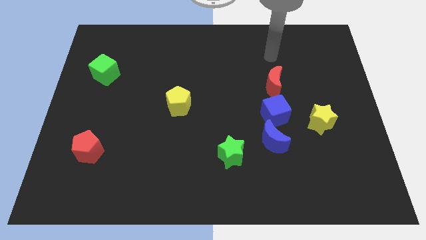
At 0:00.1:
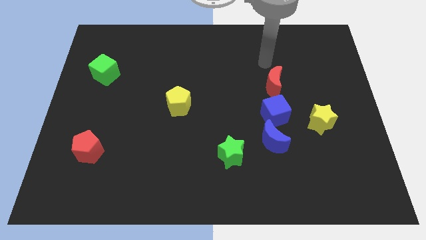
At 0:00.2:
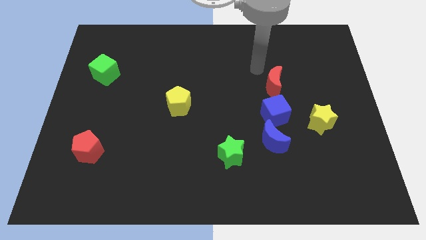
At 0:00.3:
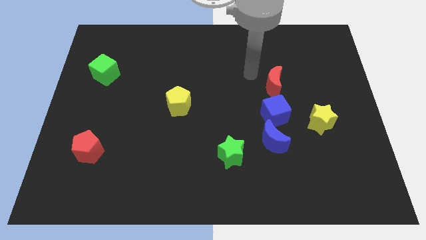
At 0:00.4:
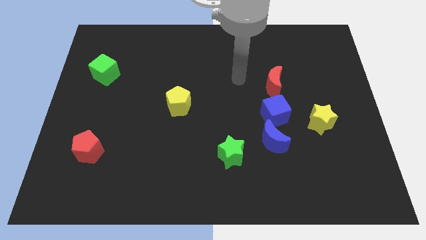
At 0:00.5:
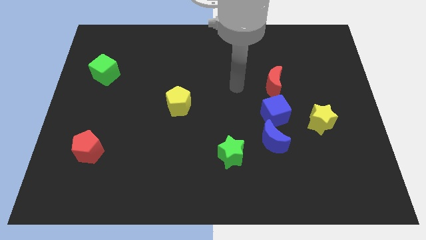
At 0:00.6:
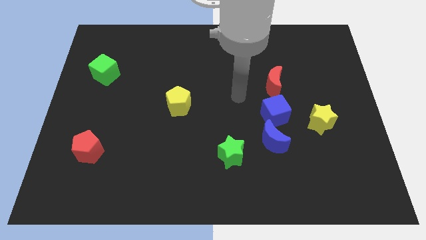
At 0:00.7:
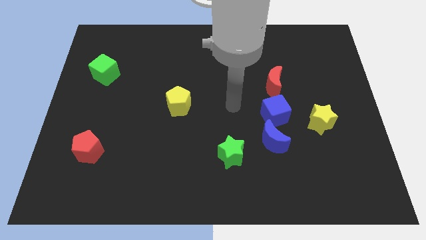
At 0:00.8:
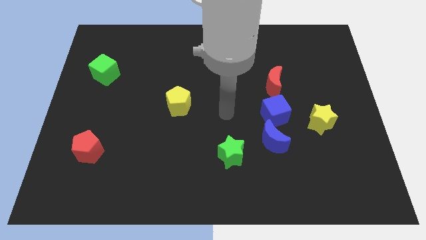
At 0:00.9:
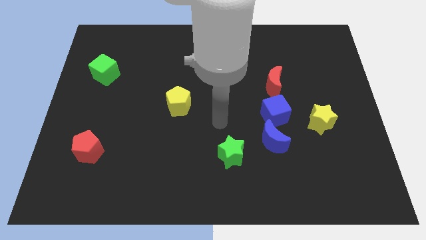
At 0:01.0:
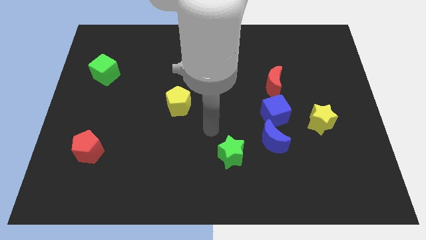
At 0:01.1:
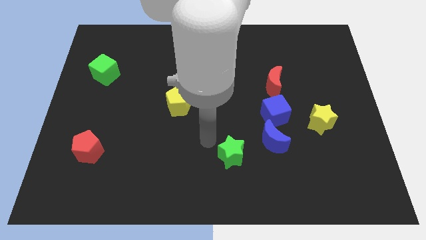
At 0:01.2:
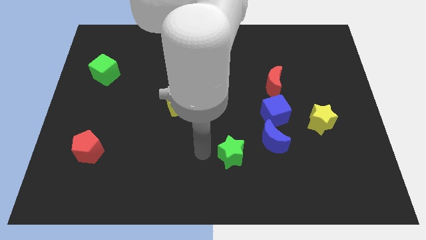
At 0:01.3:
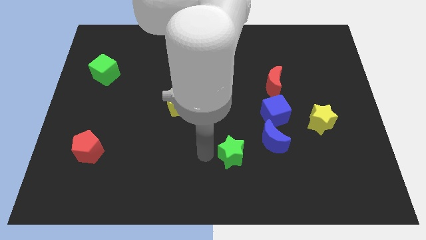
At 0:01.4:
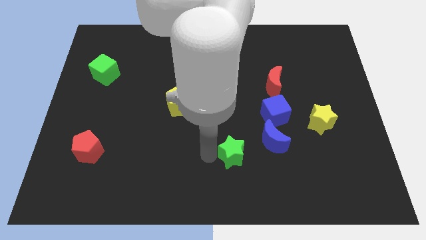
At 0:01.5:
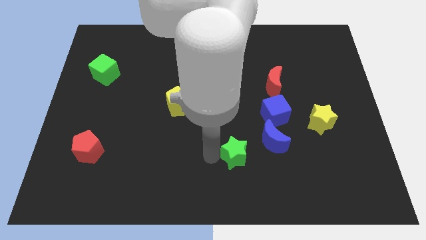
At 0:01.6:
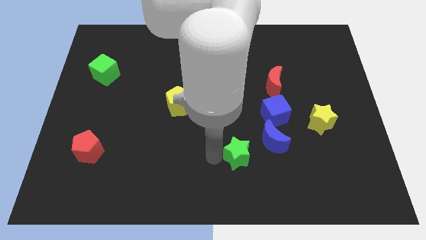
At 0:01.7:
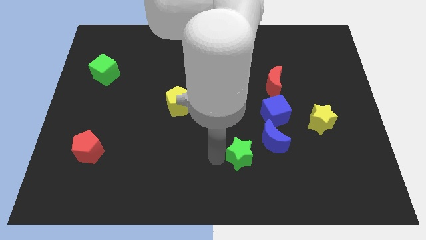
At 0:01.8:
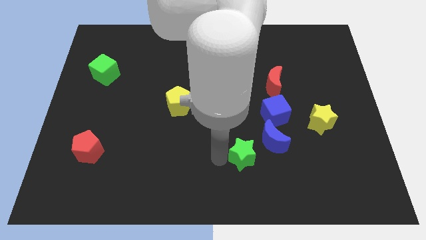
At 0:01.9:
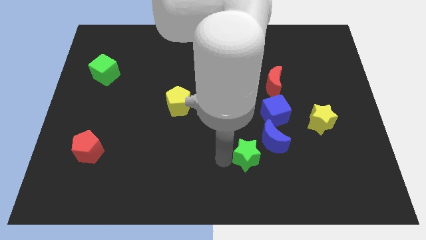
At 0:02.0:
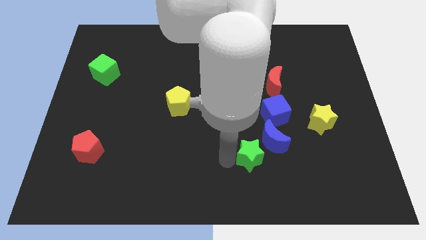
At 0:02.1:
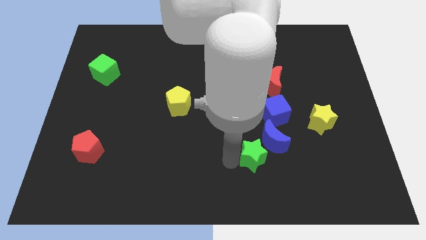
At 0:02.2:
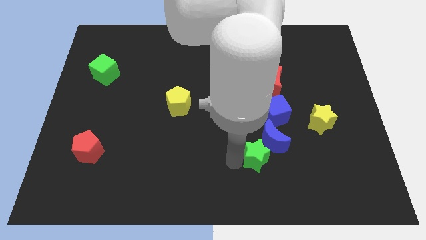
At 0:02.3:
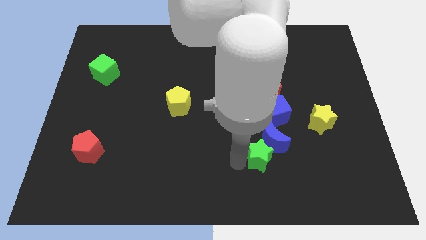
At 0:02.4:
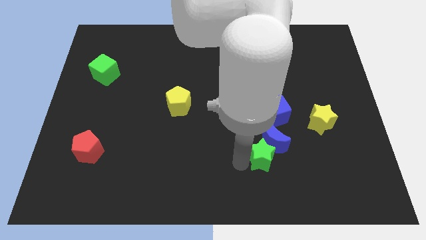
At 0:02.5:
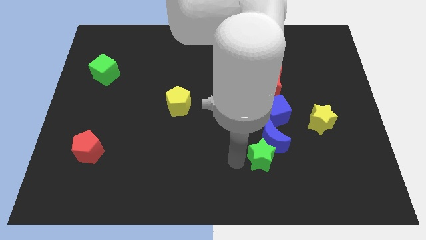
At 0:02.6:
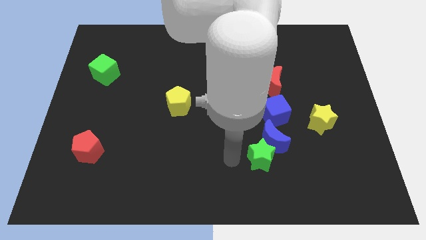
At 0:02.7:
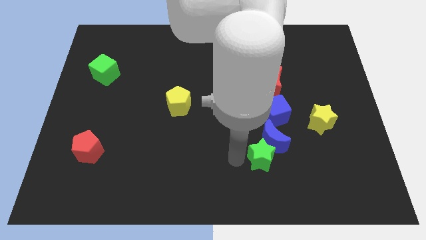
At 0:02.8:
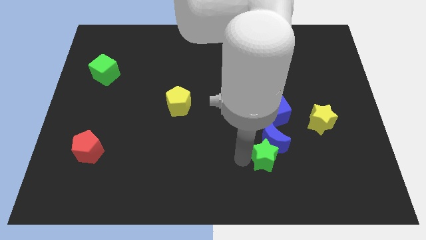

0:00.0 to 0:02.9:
slide the green star a little to the right

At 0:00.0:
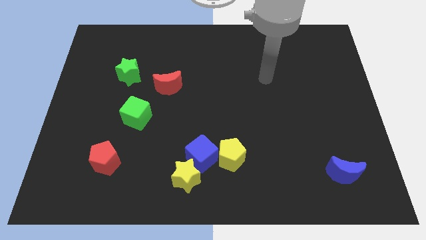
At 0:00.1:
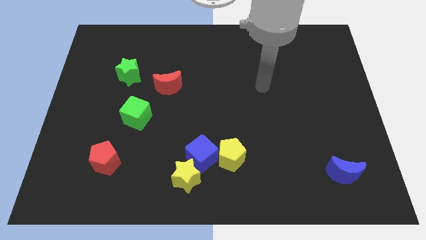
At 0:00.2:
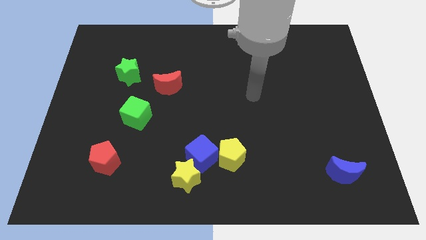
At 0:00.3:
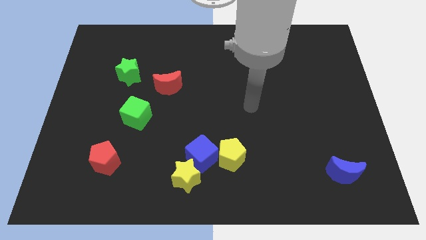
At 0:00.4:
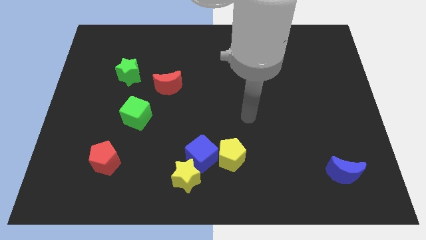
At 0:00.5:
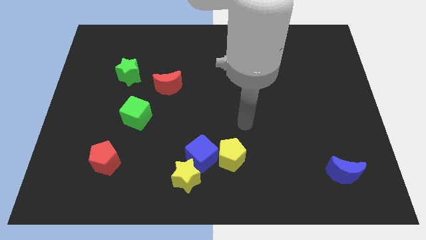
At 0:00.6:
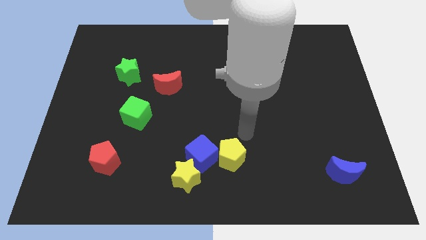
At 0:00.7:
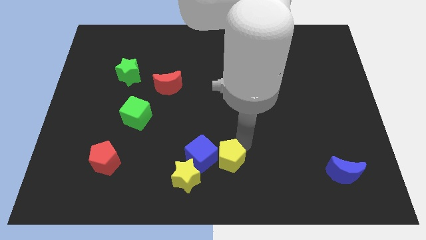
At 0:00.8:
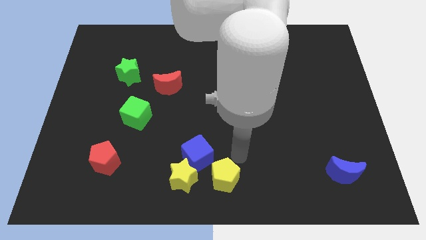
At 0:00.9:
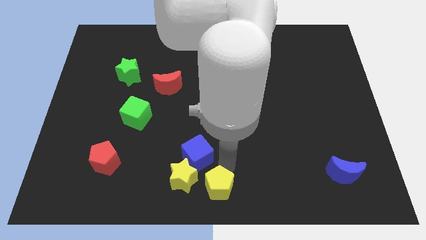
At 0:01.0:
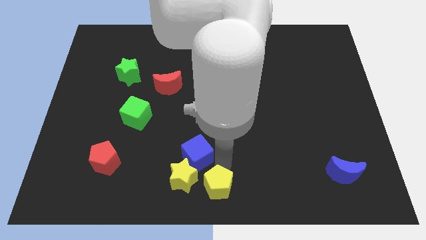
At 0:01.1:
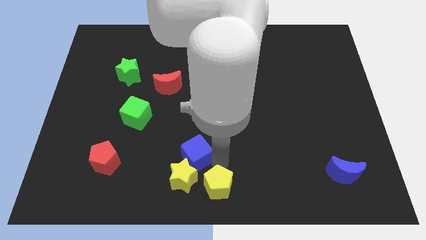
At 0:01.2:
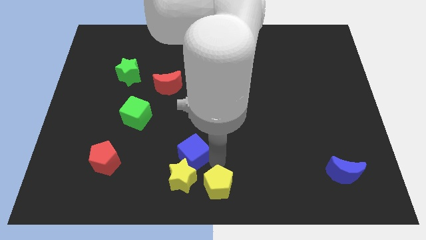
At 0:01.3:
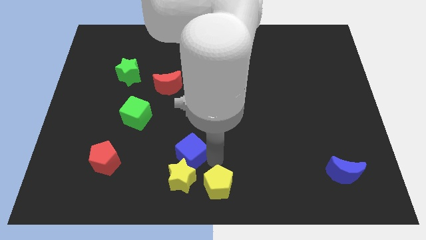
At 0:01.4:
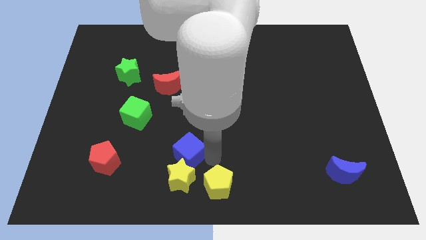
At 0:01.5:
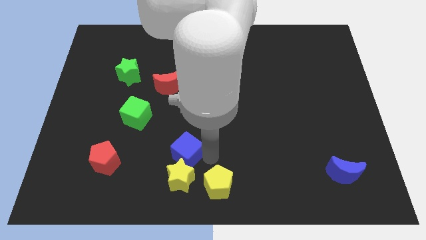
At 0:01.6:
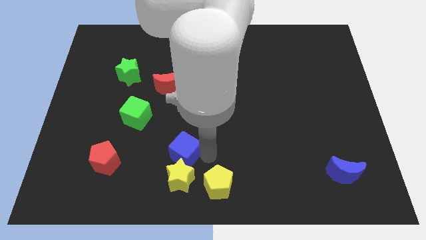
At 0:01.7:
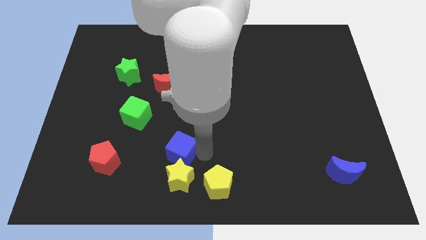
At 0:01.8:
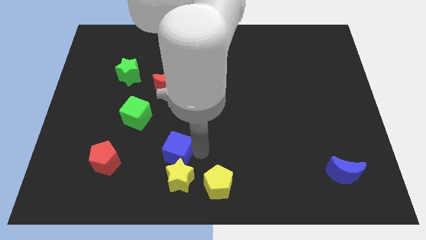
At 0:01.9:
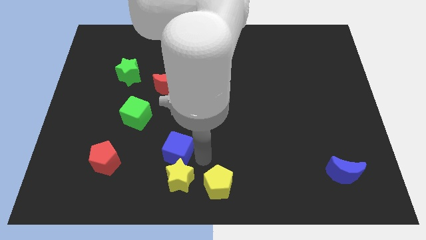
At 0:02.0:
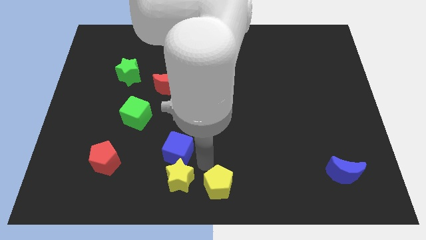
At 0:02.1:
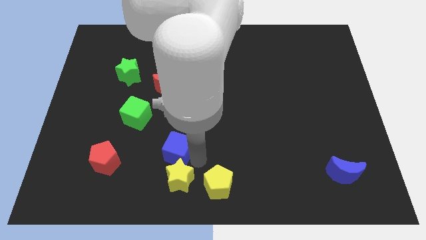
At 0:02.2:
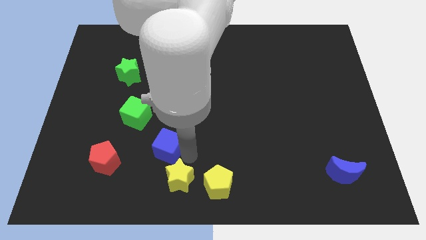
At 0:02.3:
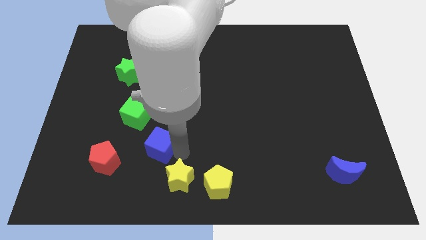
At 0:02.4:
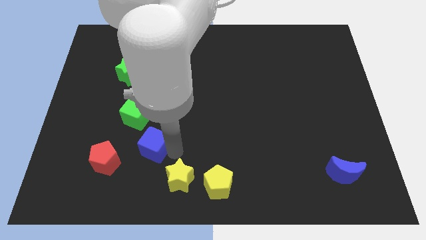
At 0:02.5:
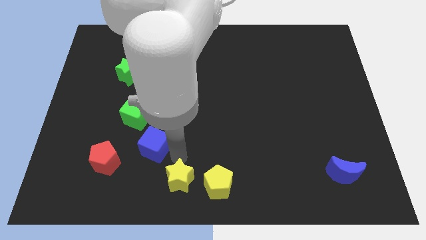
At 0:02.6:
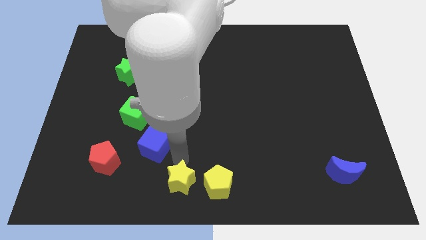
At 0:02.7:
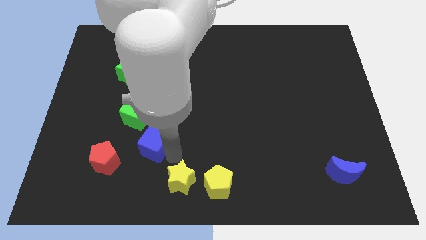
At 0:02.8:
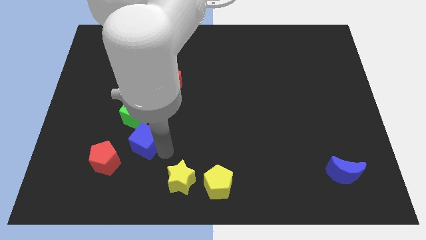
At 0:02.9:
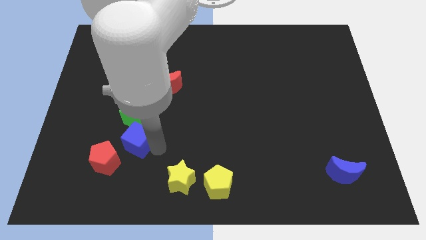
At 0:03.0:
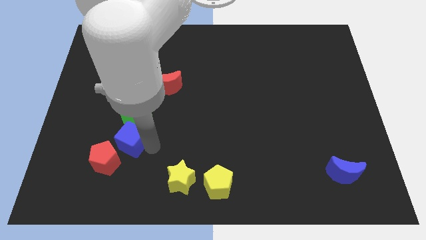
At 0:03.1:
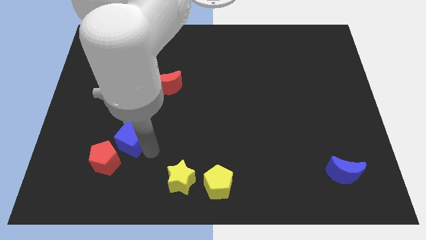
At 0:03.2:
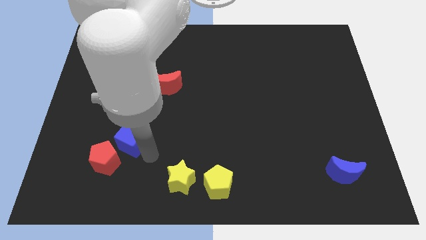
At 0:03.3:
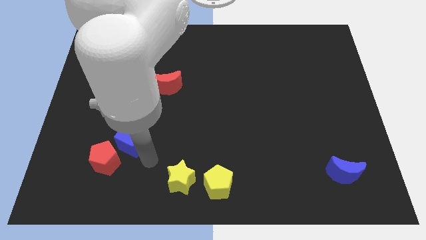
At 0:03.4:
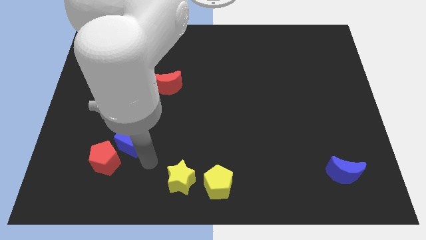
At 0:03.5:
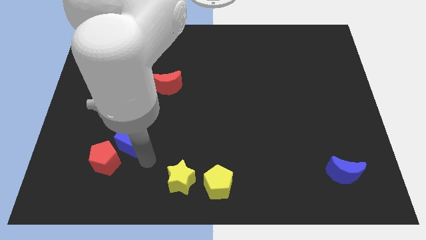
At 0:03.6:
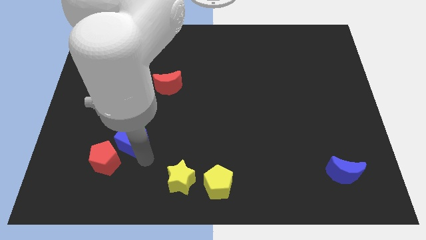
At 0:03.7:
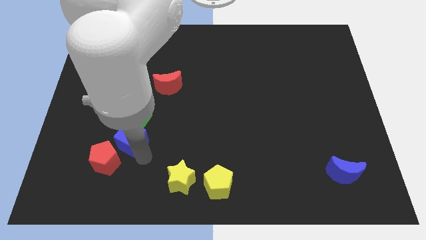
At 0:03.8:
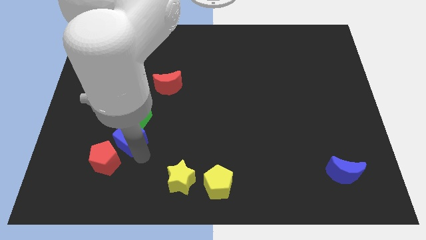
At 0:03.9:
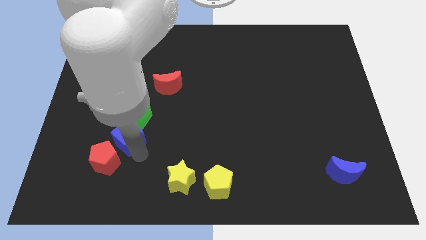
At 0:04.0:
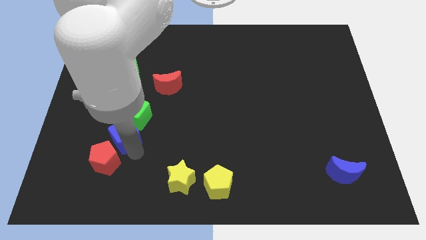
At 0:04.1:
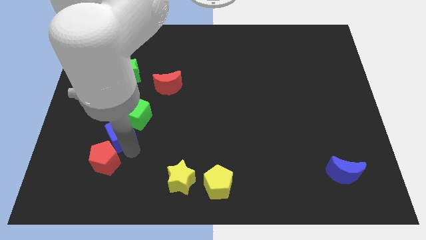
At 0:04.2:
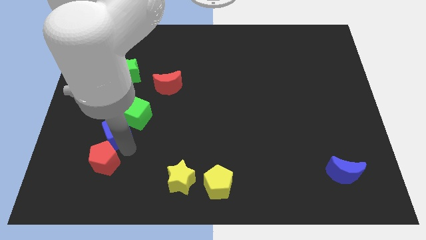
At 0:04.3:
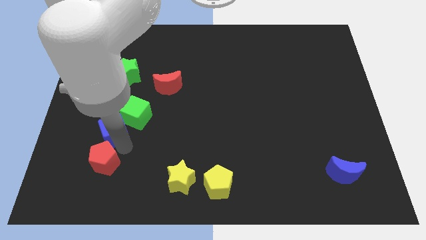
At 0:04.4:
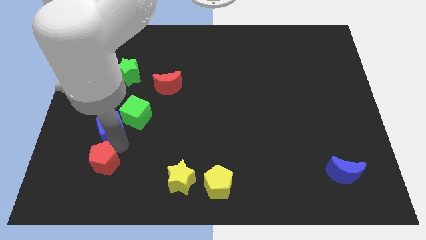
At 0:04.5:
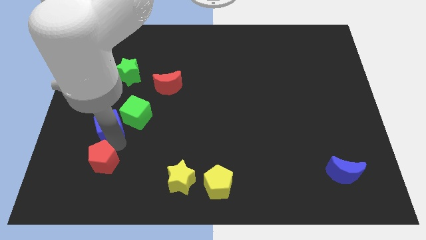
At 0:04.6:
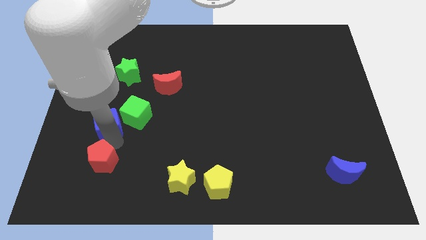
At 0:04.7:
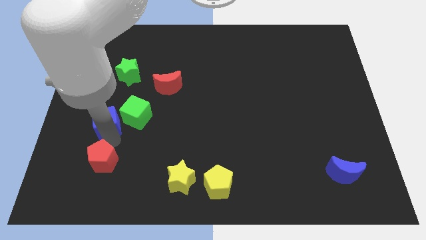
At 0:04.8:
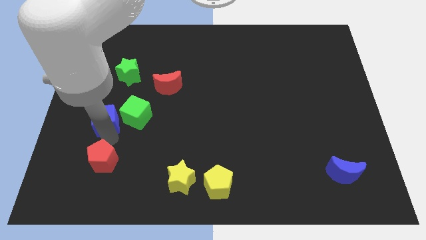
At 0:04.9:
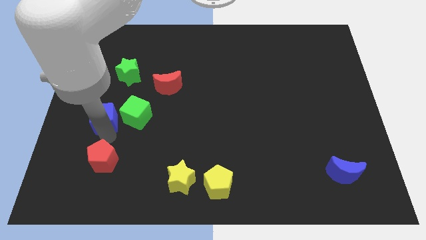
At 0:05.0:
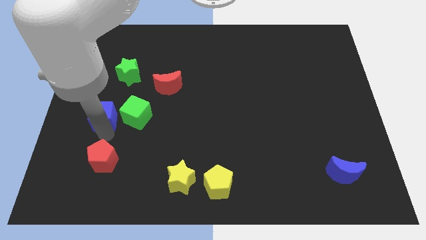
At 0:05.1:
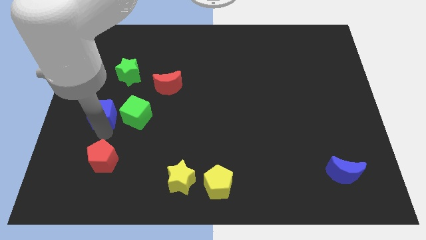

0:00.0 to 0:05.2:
slide the blue cube upwards and left
